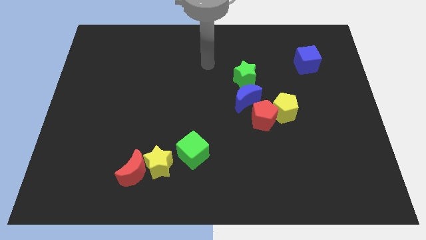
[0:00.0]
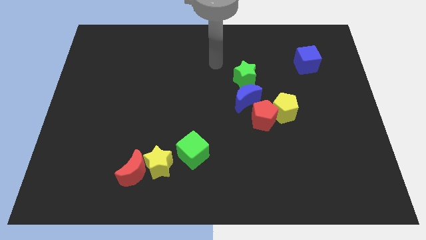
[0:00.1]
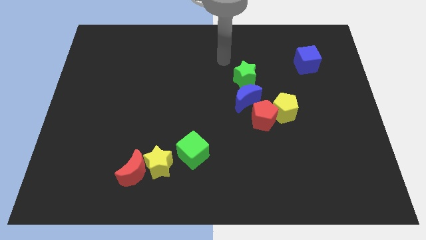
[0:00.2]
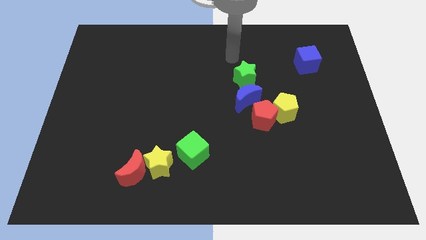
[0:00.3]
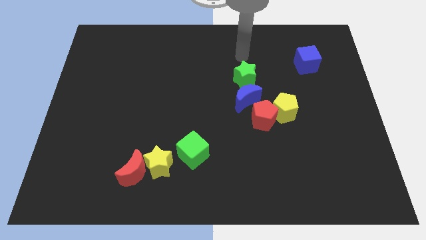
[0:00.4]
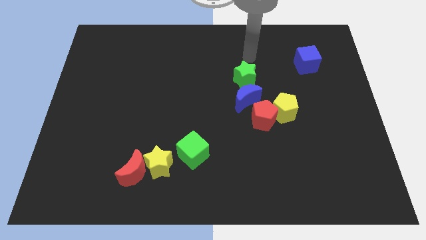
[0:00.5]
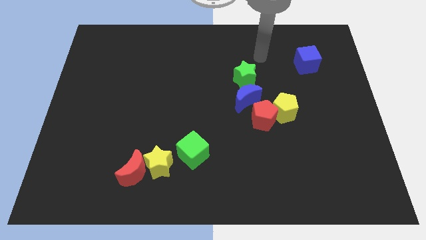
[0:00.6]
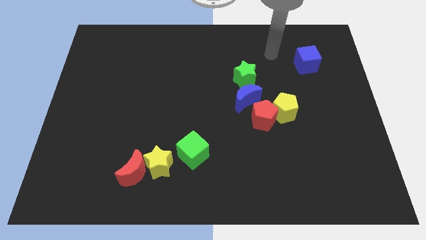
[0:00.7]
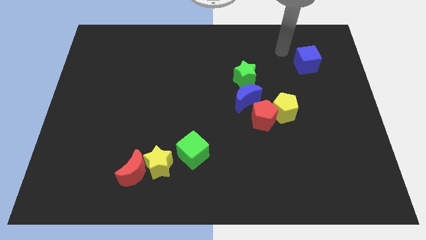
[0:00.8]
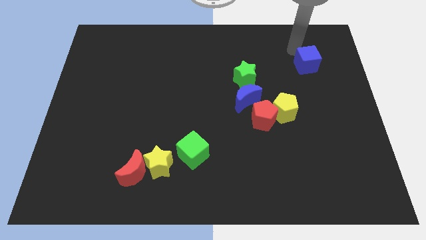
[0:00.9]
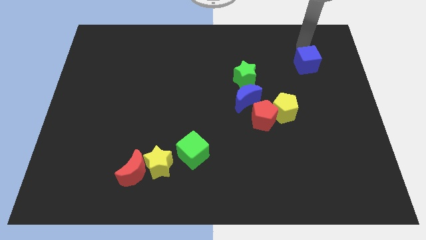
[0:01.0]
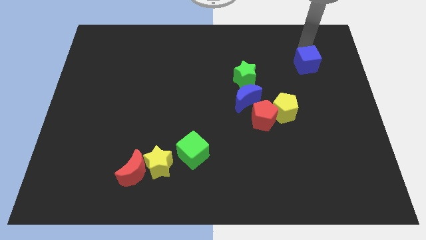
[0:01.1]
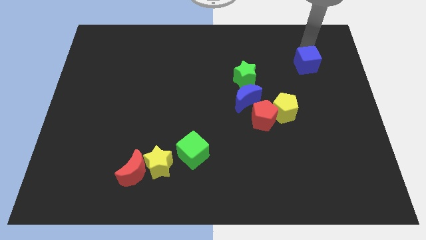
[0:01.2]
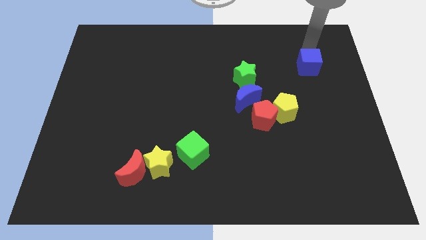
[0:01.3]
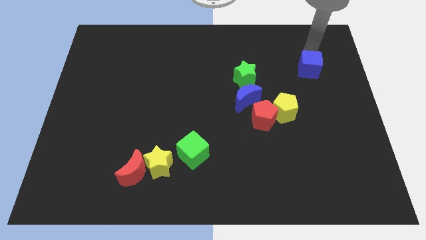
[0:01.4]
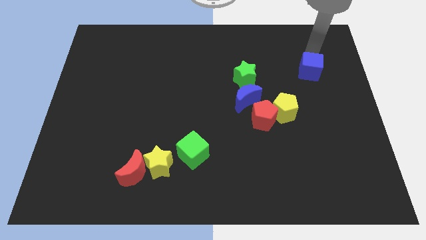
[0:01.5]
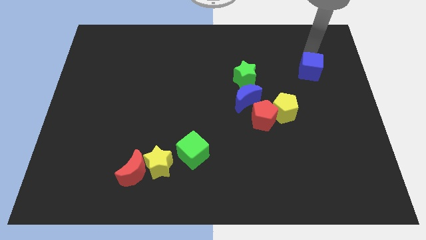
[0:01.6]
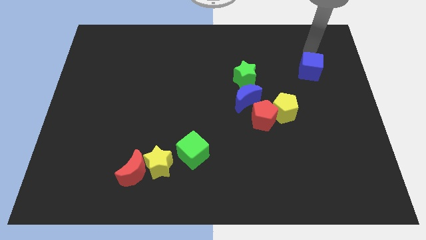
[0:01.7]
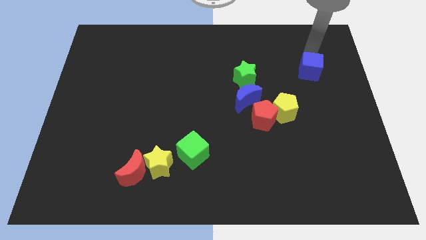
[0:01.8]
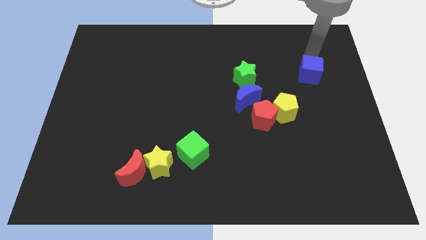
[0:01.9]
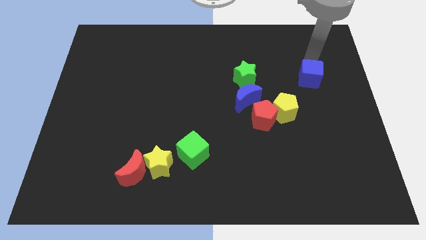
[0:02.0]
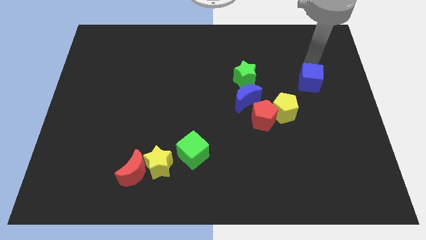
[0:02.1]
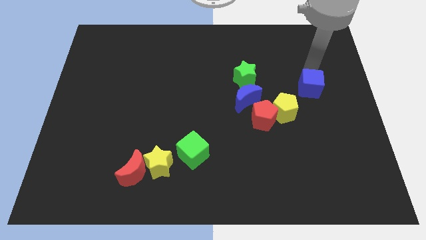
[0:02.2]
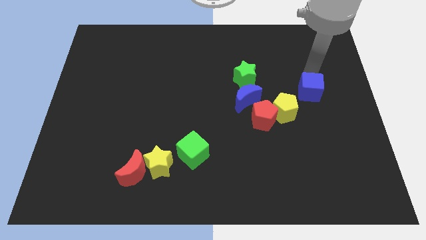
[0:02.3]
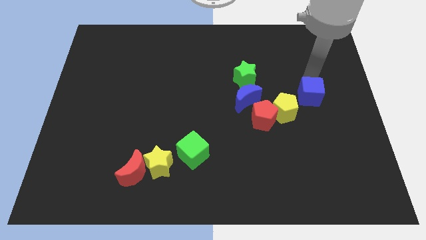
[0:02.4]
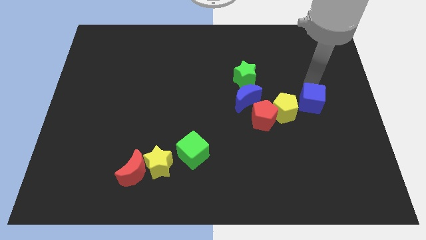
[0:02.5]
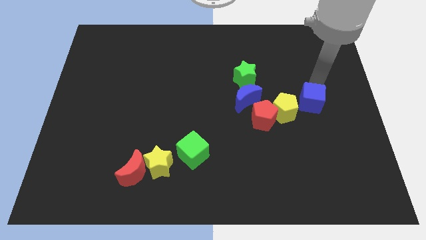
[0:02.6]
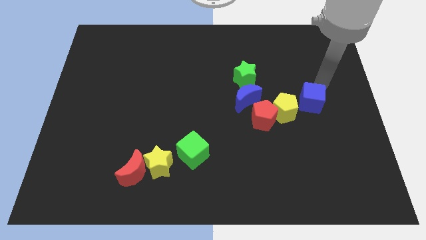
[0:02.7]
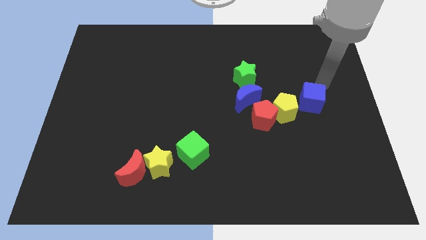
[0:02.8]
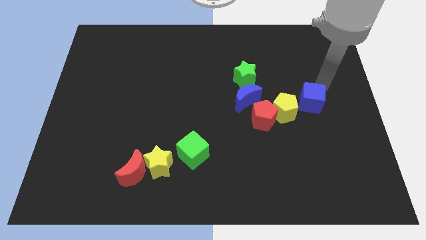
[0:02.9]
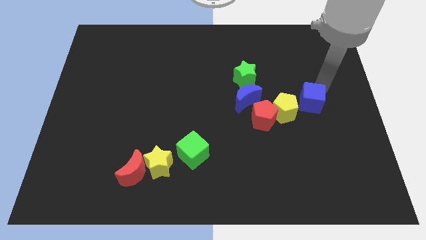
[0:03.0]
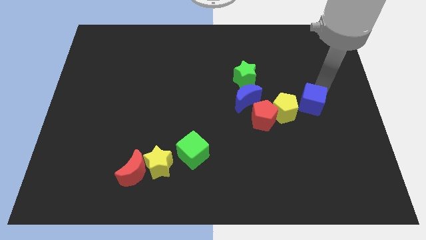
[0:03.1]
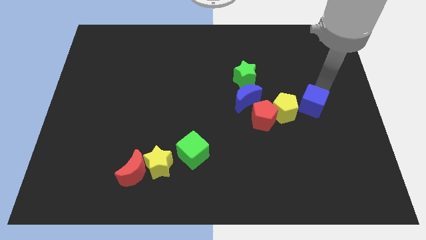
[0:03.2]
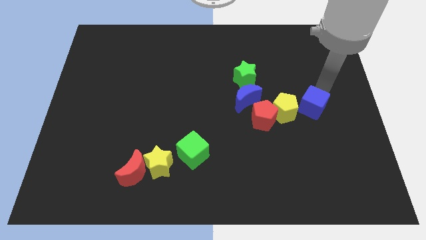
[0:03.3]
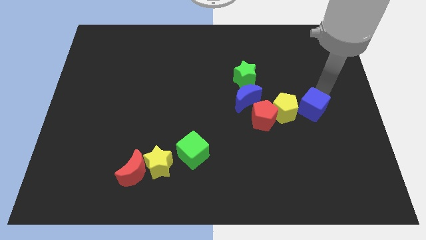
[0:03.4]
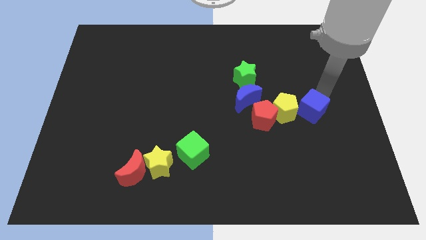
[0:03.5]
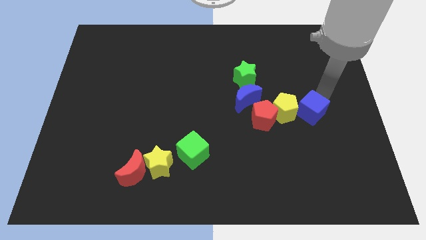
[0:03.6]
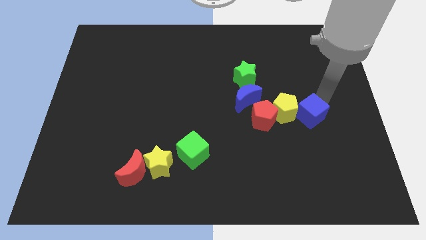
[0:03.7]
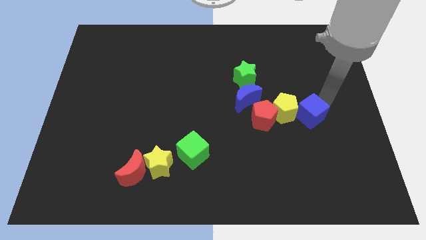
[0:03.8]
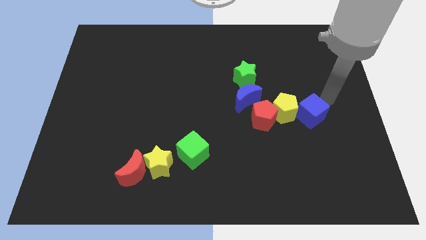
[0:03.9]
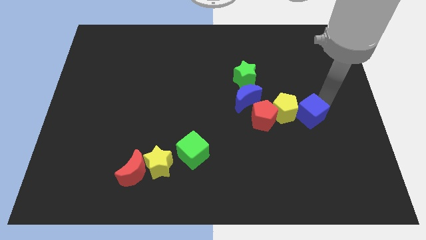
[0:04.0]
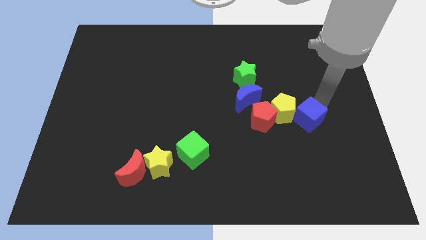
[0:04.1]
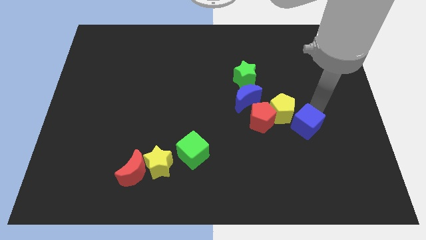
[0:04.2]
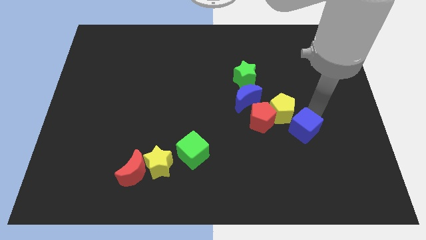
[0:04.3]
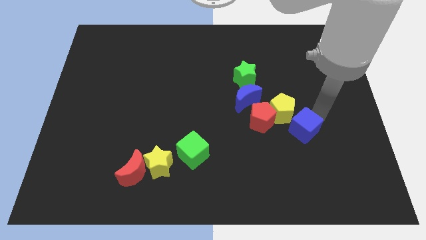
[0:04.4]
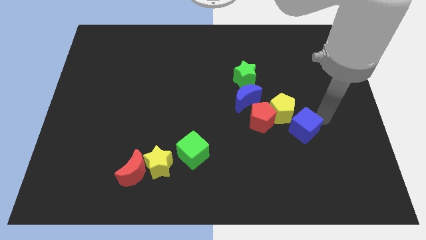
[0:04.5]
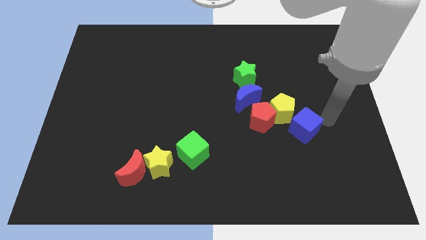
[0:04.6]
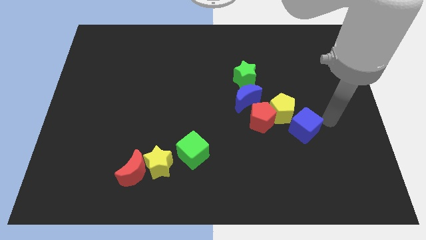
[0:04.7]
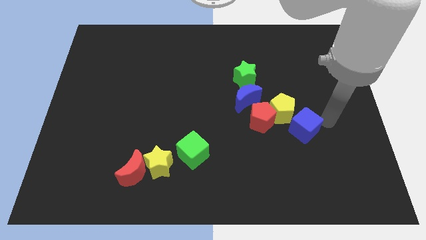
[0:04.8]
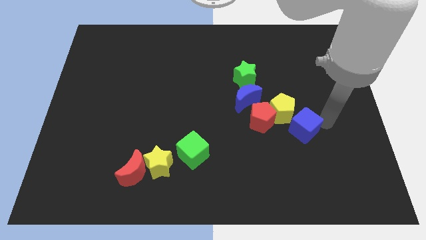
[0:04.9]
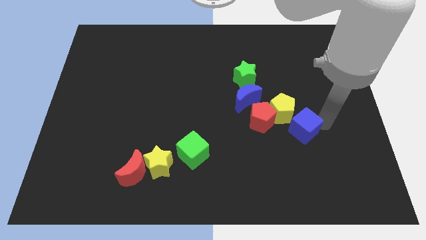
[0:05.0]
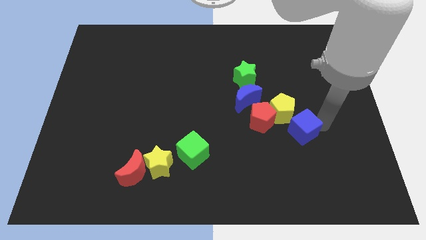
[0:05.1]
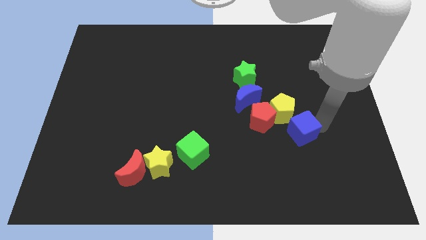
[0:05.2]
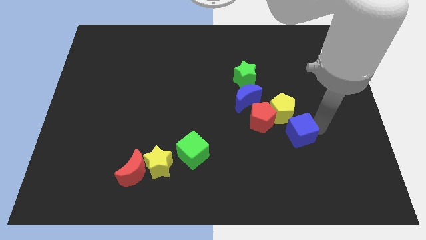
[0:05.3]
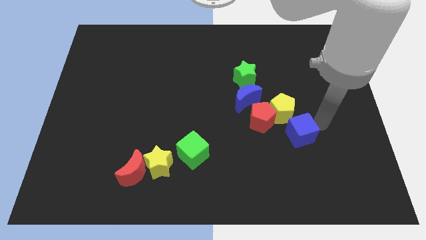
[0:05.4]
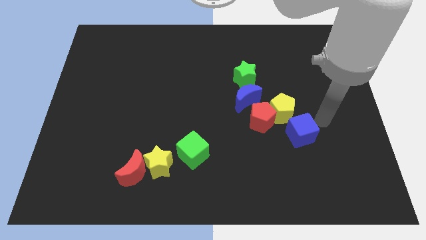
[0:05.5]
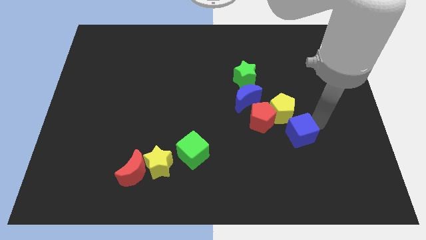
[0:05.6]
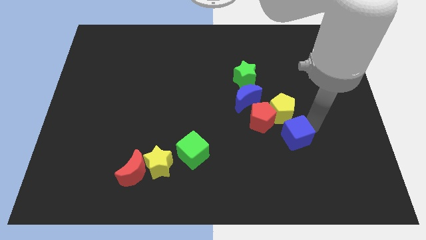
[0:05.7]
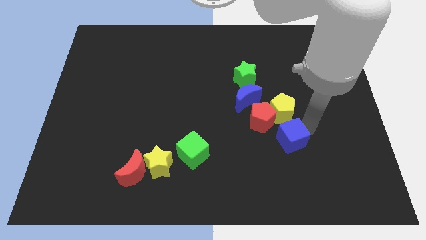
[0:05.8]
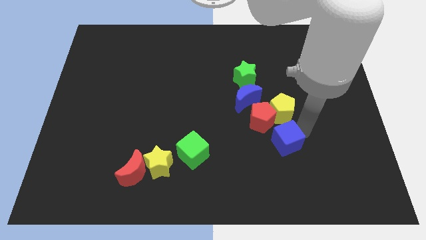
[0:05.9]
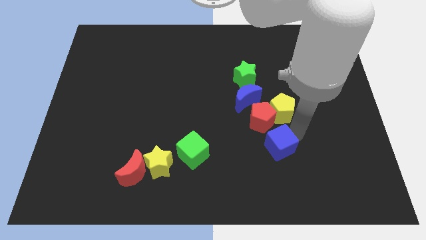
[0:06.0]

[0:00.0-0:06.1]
push the blue cube to the bottom side of the red pentagon

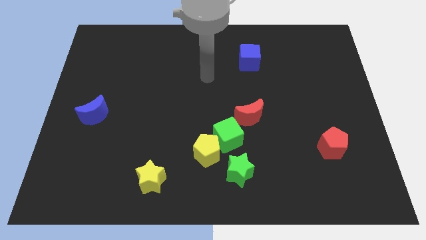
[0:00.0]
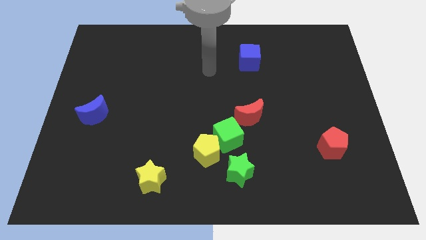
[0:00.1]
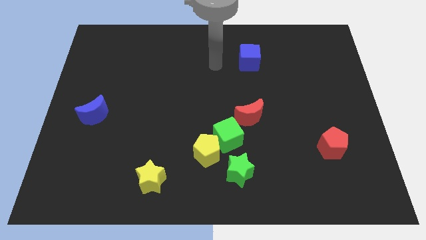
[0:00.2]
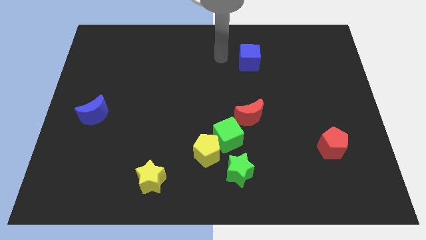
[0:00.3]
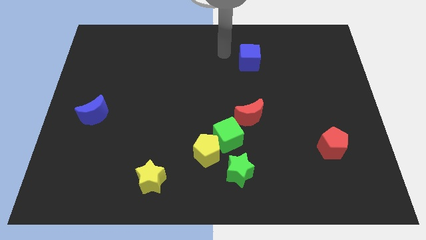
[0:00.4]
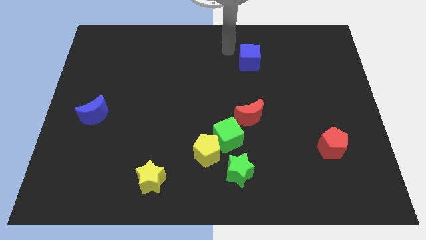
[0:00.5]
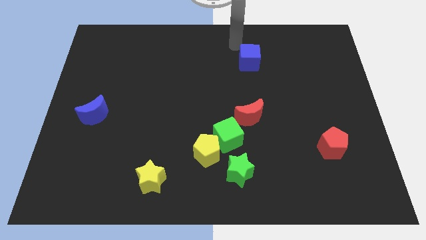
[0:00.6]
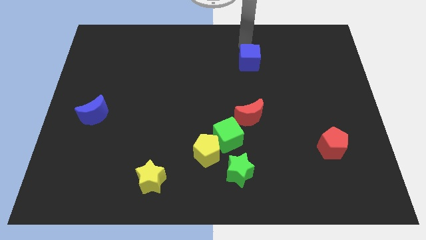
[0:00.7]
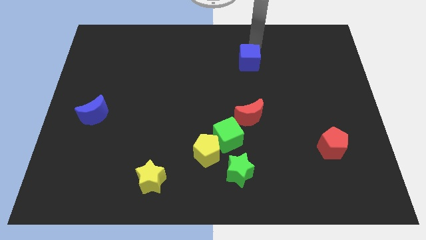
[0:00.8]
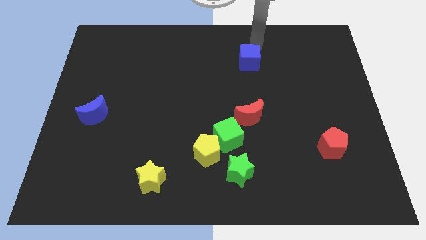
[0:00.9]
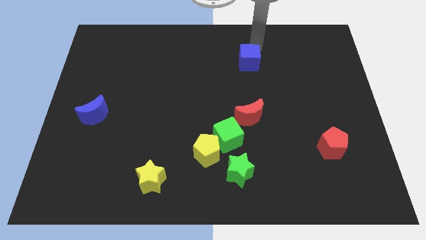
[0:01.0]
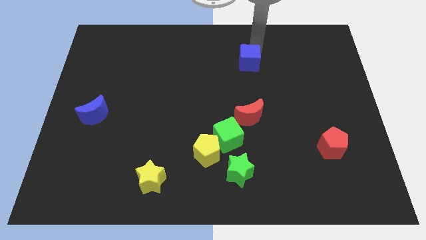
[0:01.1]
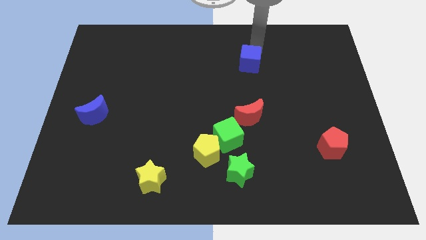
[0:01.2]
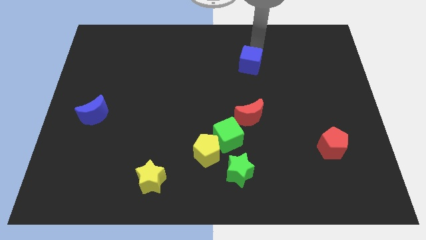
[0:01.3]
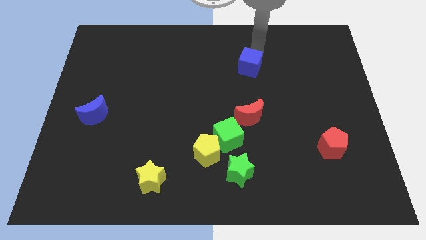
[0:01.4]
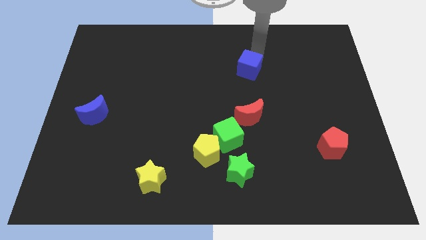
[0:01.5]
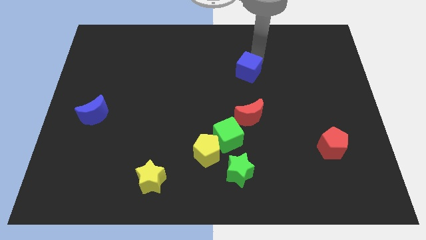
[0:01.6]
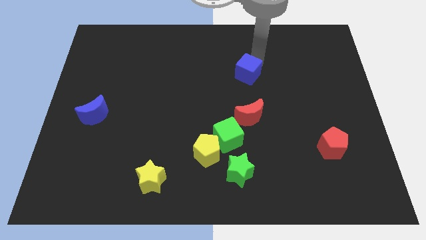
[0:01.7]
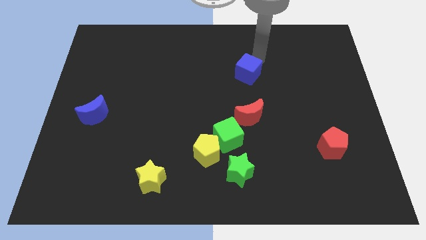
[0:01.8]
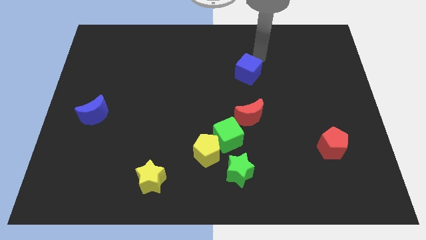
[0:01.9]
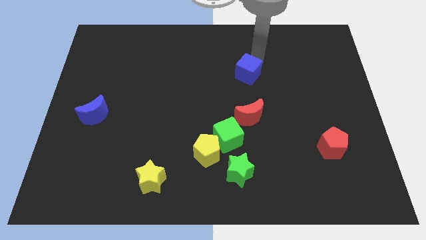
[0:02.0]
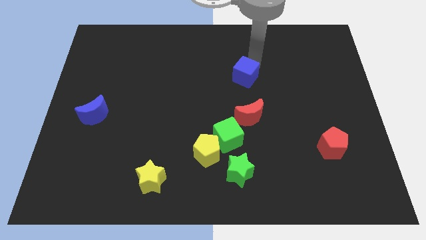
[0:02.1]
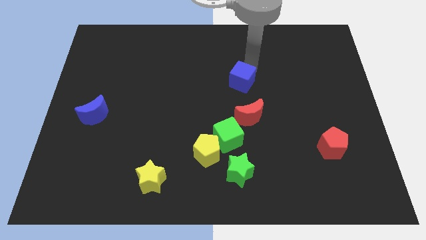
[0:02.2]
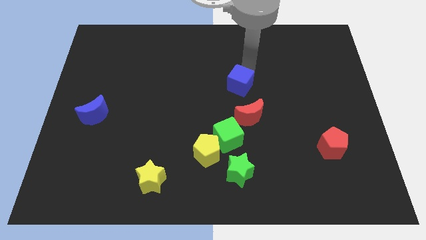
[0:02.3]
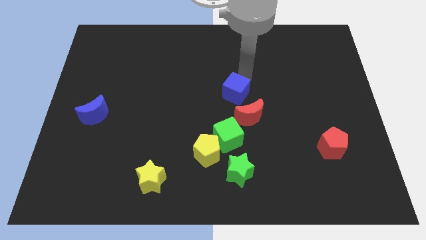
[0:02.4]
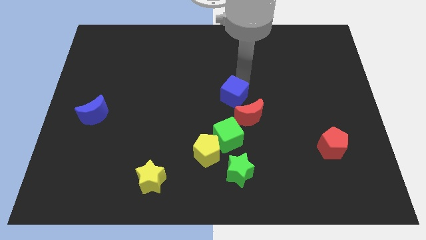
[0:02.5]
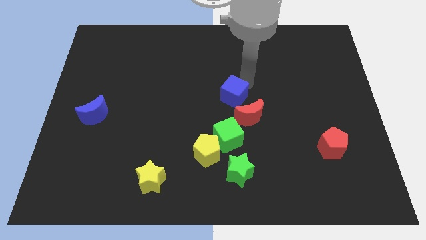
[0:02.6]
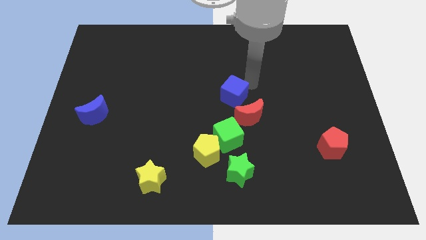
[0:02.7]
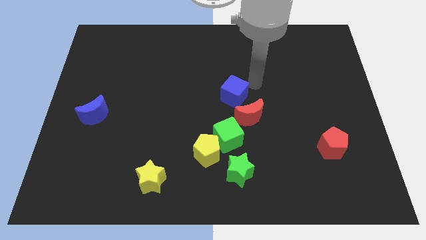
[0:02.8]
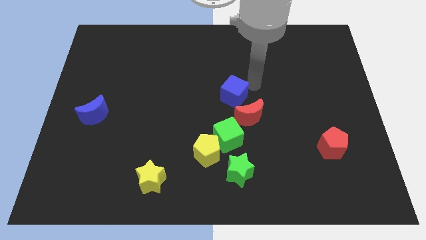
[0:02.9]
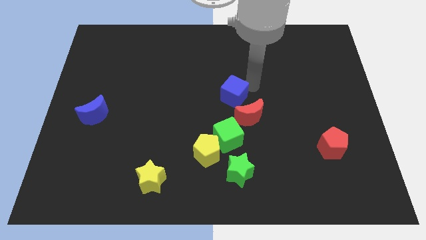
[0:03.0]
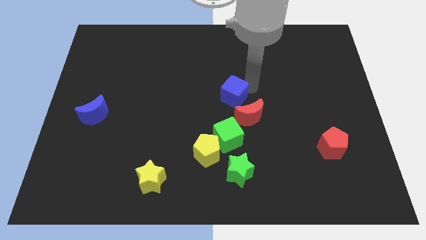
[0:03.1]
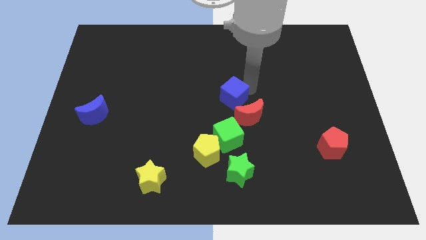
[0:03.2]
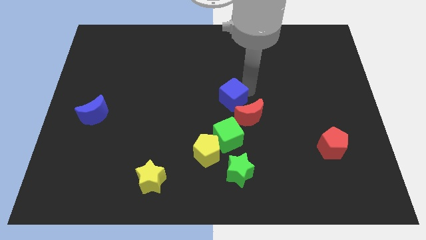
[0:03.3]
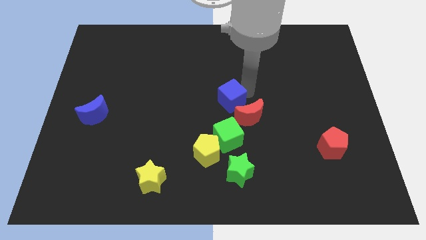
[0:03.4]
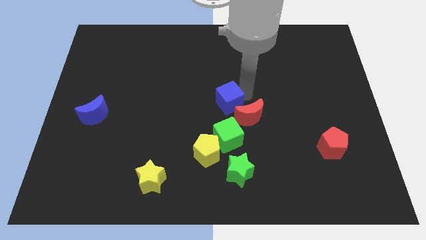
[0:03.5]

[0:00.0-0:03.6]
put the blue cube to the left of the red moon
